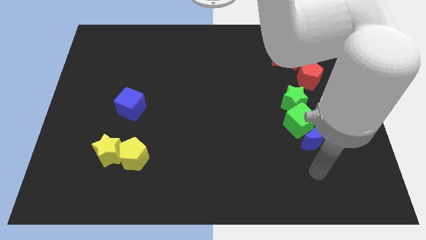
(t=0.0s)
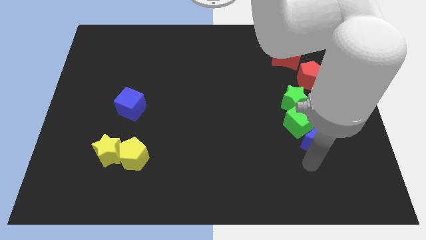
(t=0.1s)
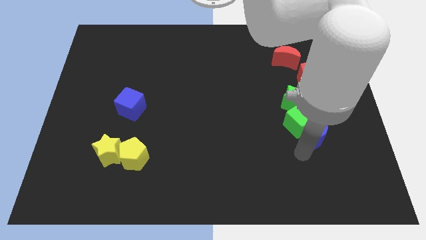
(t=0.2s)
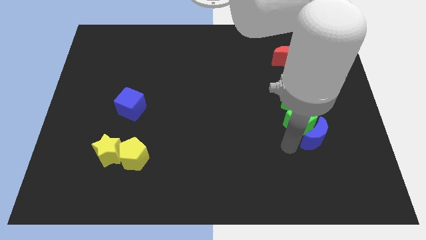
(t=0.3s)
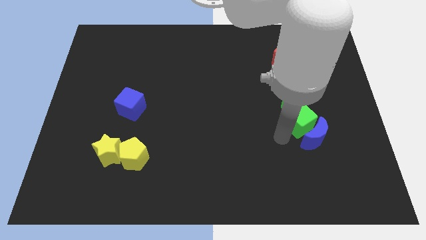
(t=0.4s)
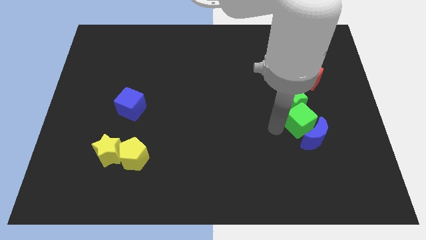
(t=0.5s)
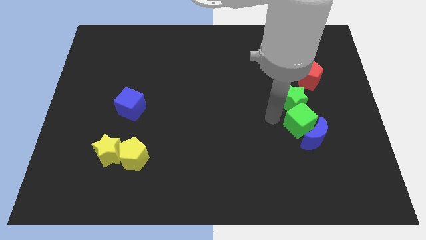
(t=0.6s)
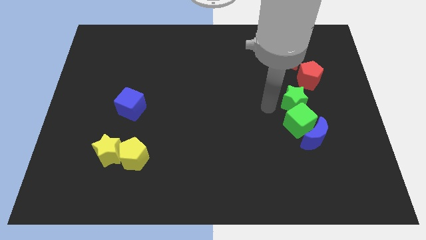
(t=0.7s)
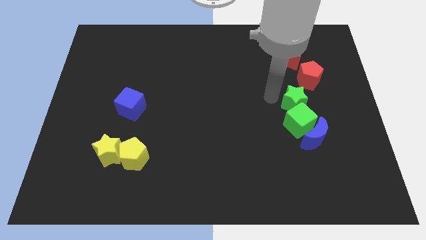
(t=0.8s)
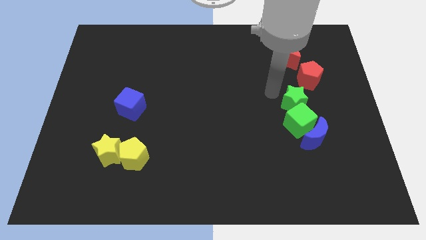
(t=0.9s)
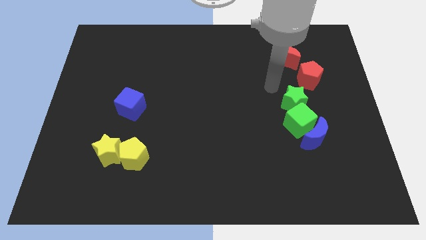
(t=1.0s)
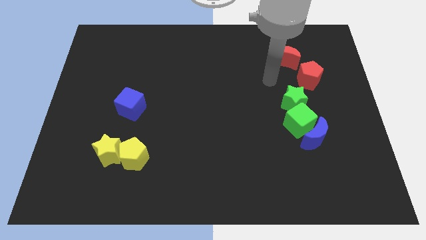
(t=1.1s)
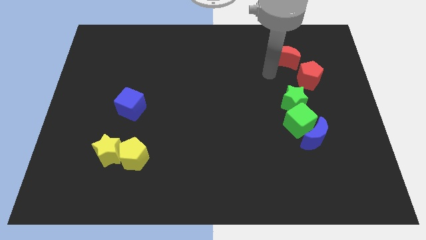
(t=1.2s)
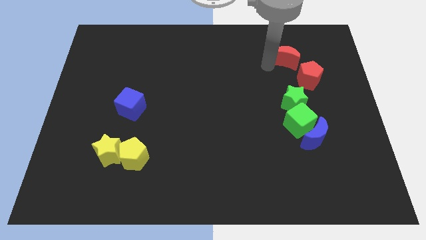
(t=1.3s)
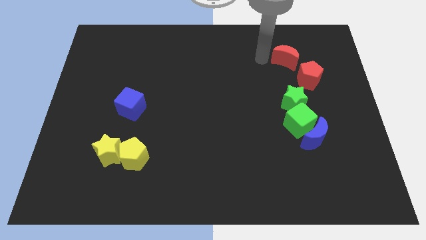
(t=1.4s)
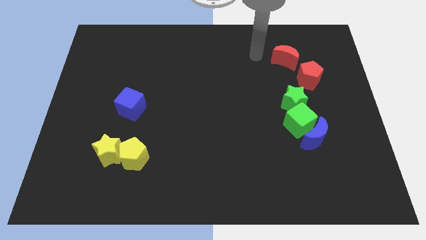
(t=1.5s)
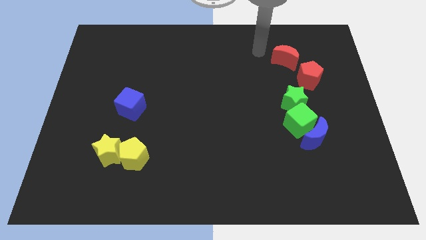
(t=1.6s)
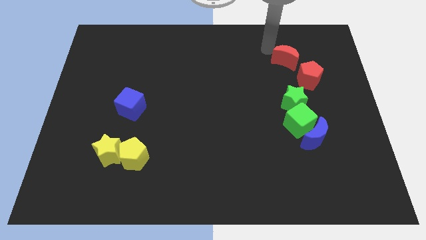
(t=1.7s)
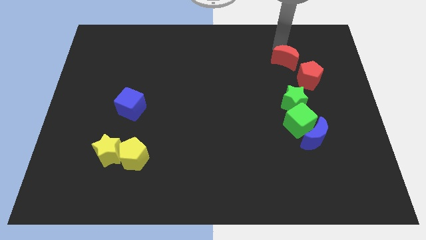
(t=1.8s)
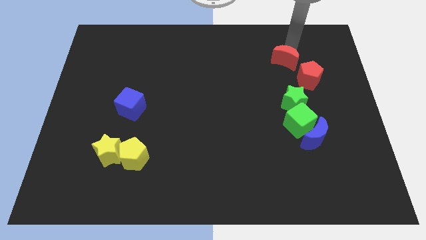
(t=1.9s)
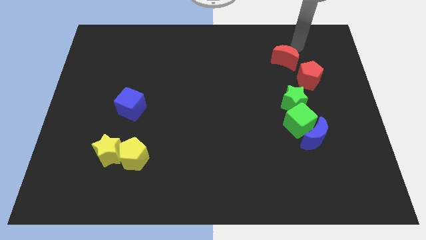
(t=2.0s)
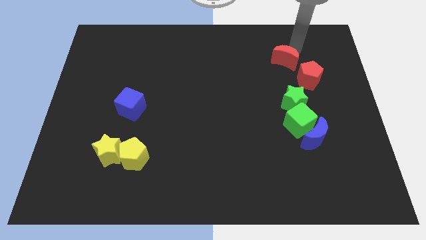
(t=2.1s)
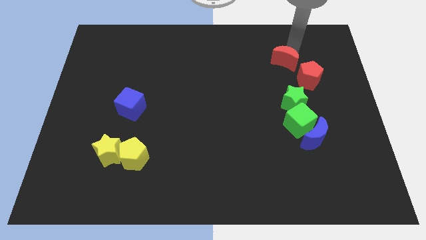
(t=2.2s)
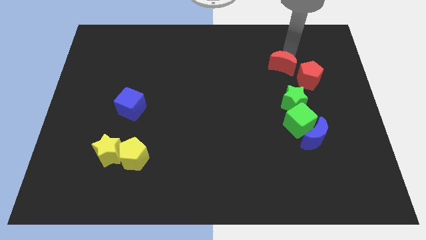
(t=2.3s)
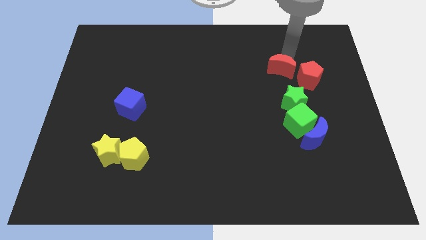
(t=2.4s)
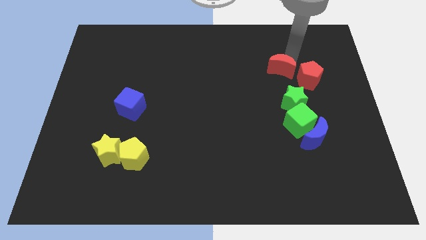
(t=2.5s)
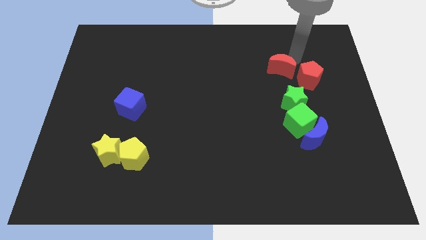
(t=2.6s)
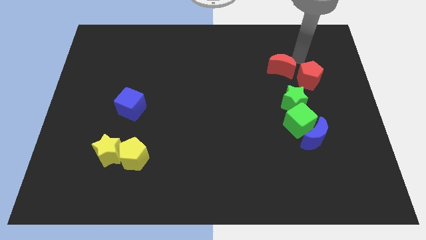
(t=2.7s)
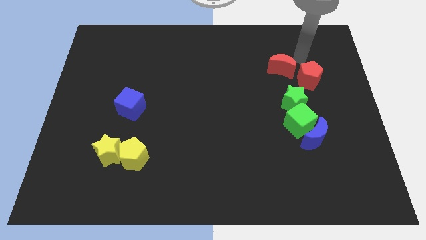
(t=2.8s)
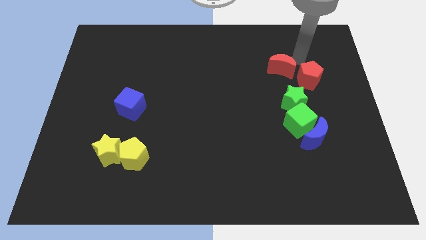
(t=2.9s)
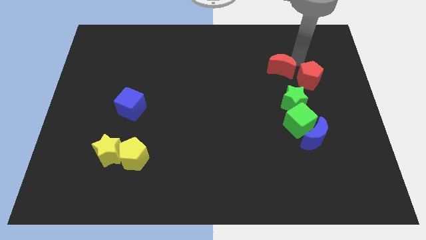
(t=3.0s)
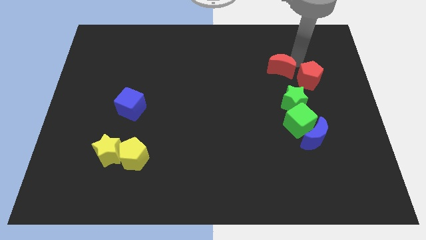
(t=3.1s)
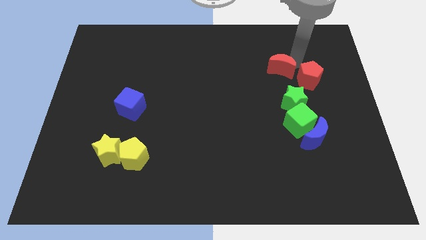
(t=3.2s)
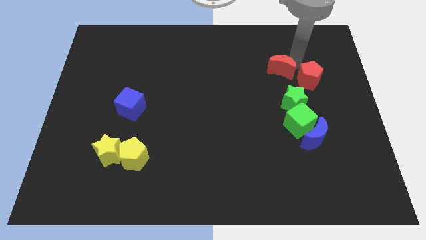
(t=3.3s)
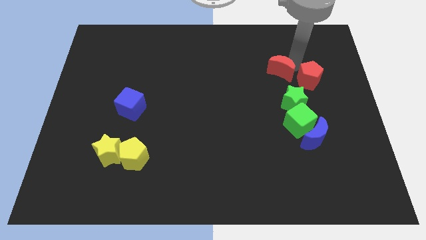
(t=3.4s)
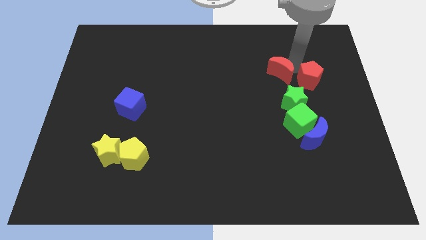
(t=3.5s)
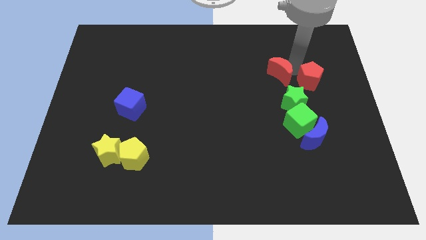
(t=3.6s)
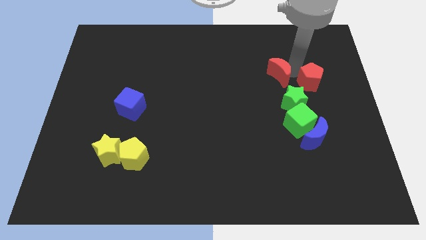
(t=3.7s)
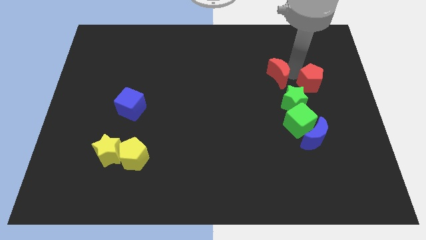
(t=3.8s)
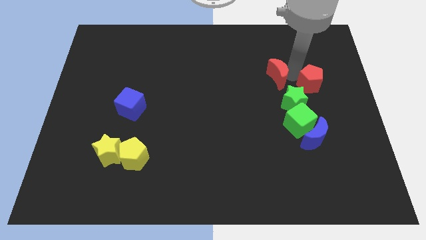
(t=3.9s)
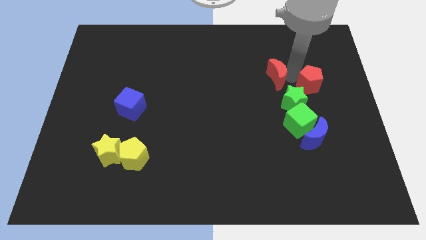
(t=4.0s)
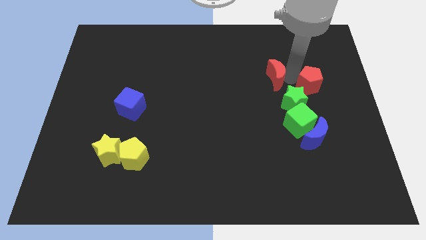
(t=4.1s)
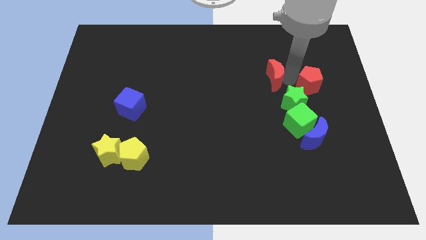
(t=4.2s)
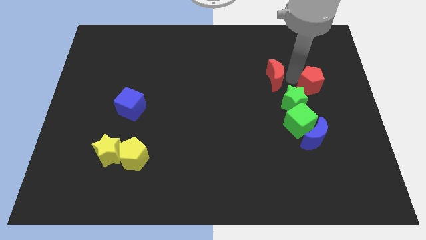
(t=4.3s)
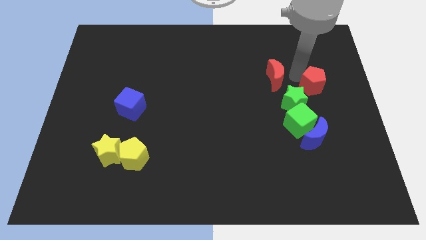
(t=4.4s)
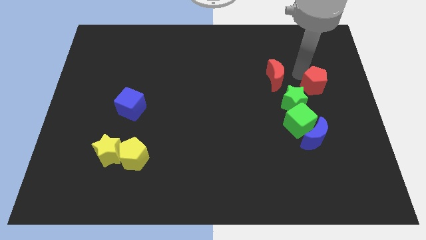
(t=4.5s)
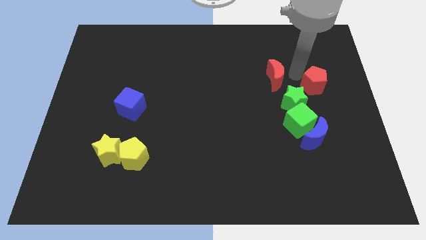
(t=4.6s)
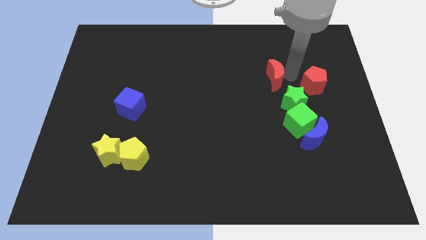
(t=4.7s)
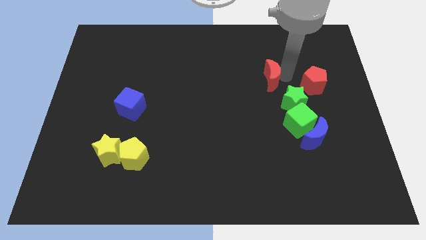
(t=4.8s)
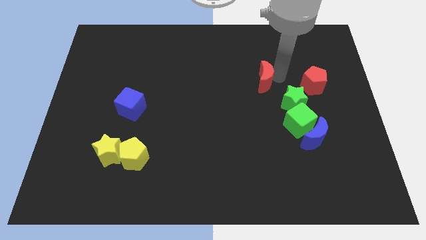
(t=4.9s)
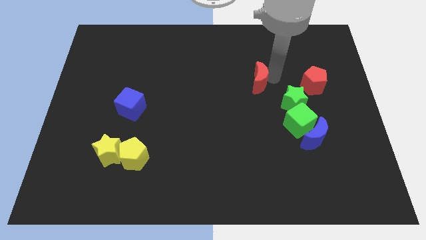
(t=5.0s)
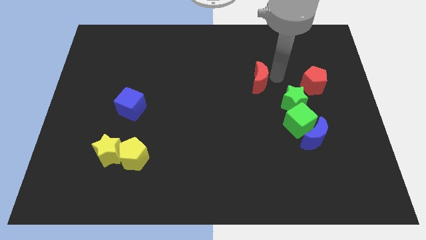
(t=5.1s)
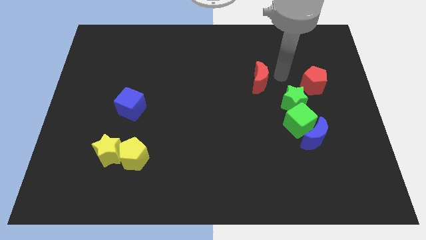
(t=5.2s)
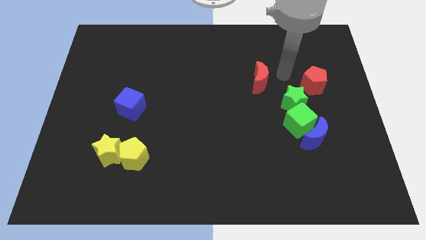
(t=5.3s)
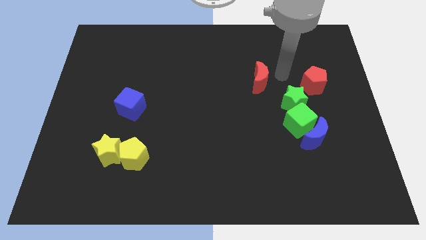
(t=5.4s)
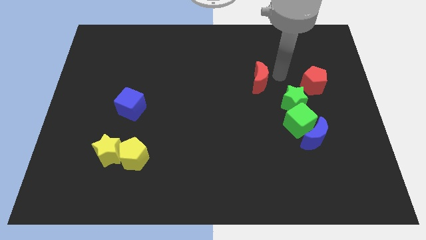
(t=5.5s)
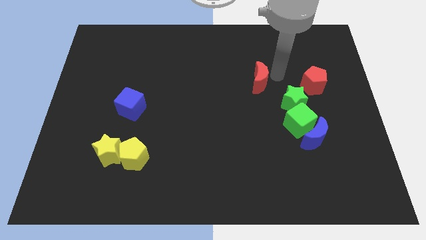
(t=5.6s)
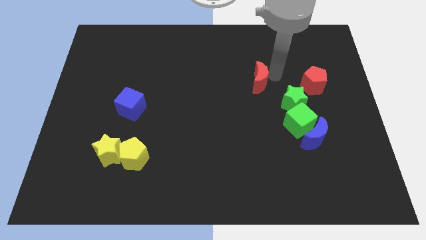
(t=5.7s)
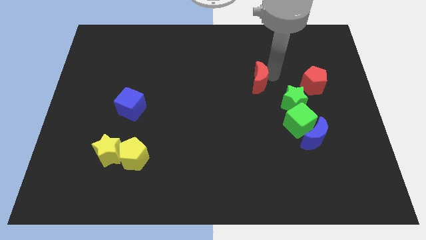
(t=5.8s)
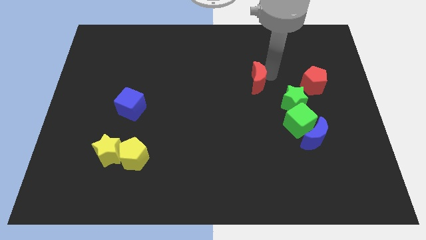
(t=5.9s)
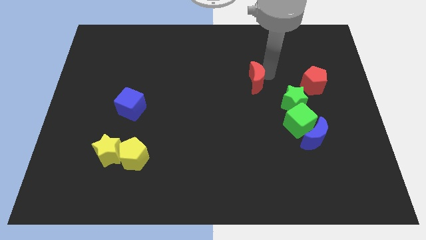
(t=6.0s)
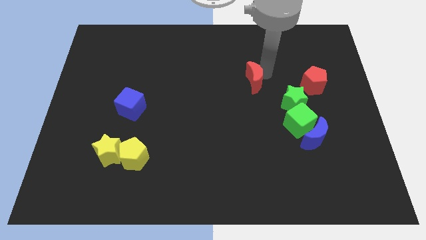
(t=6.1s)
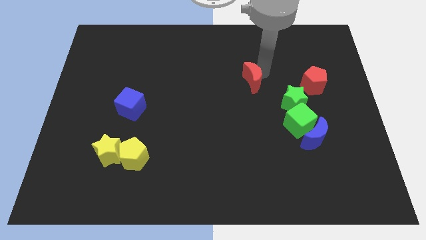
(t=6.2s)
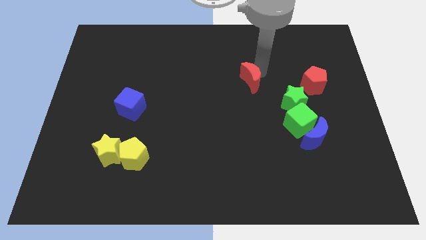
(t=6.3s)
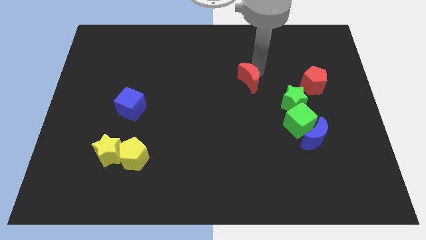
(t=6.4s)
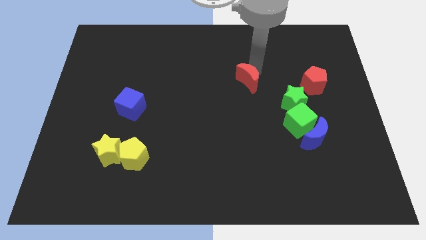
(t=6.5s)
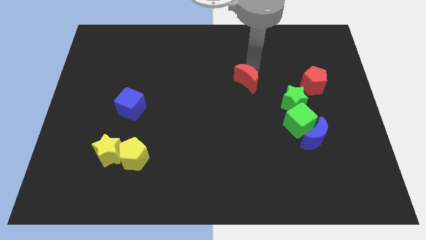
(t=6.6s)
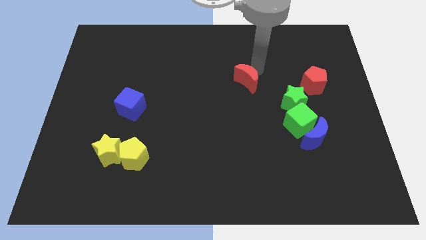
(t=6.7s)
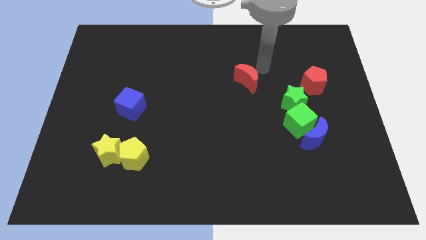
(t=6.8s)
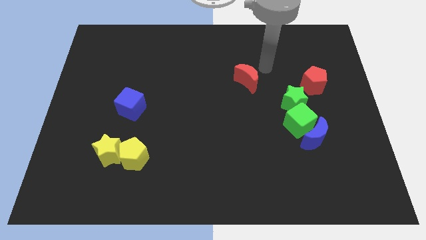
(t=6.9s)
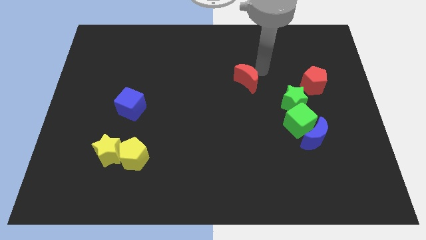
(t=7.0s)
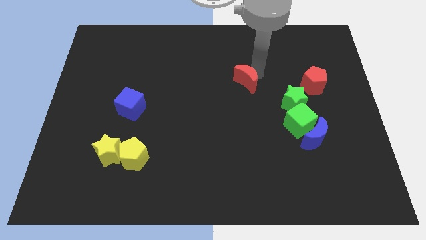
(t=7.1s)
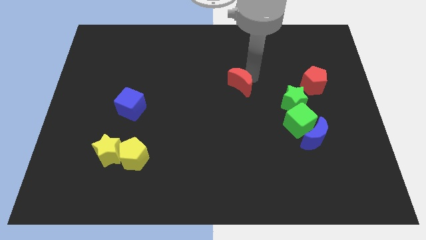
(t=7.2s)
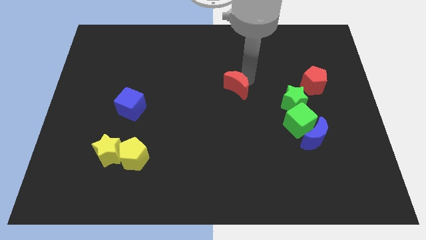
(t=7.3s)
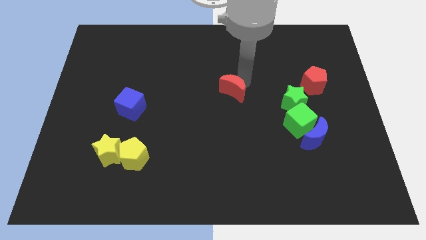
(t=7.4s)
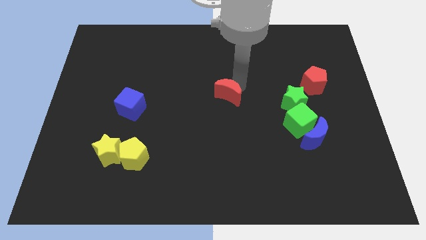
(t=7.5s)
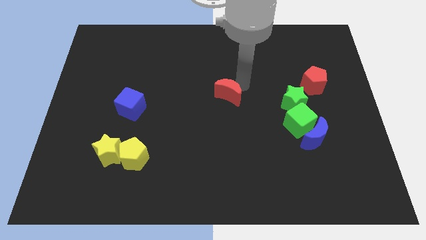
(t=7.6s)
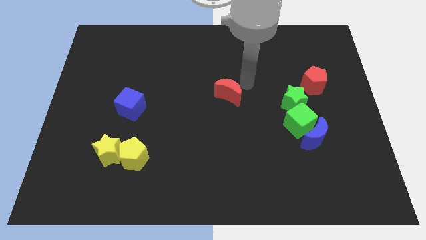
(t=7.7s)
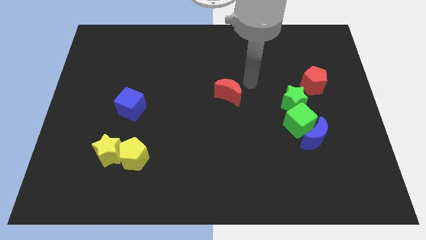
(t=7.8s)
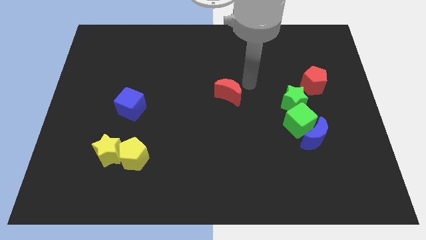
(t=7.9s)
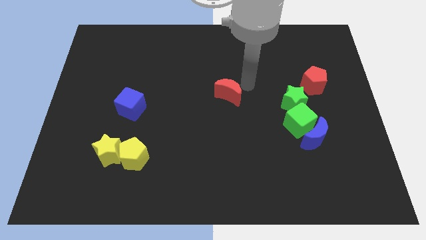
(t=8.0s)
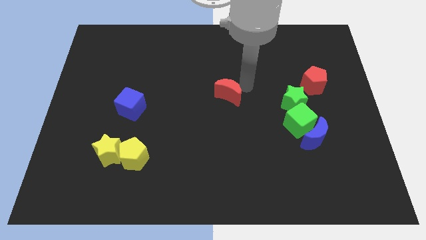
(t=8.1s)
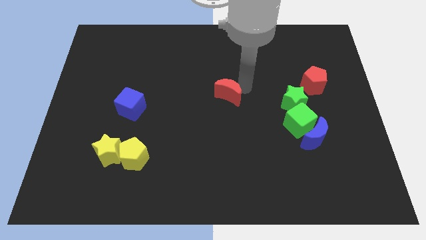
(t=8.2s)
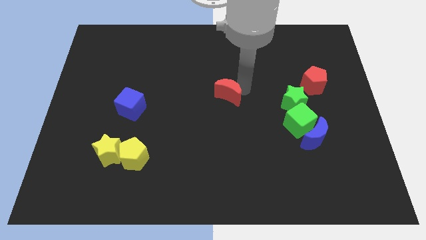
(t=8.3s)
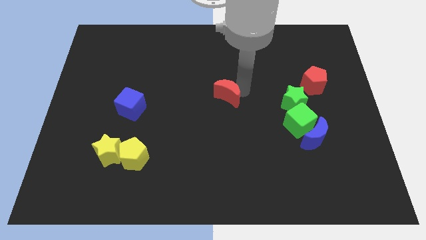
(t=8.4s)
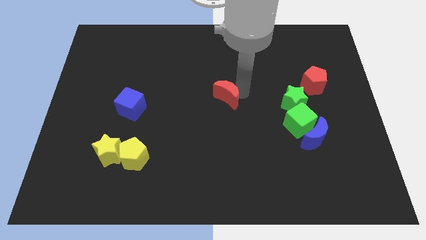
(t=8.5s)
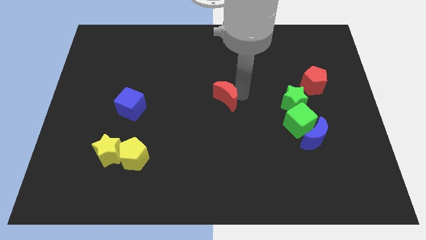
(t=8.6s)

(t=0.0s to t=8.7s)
push the red moon diagonally downwards and left
